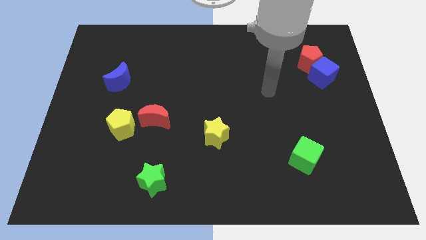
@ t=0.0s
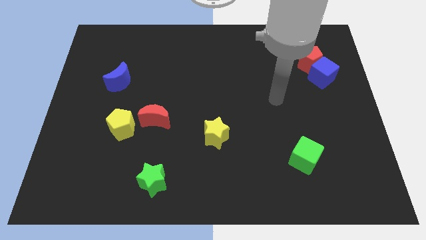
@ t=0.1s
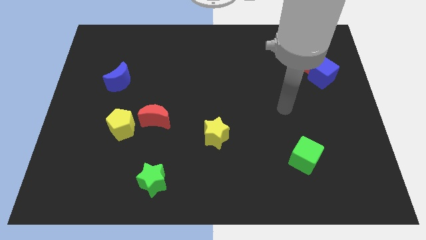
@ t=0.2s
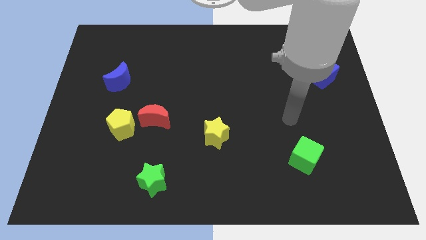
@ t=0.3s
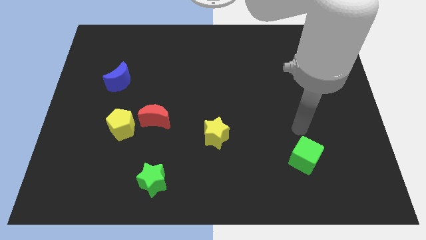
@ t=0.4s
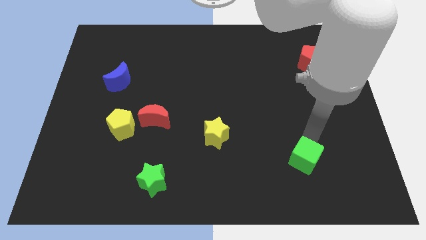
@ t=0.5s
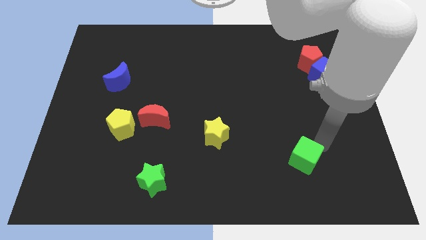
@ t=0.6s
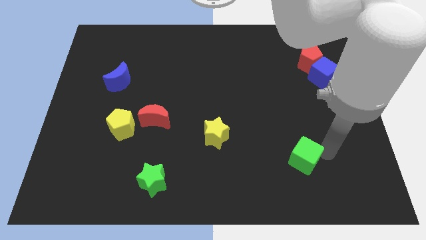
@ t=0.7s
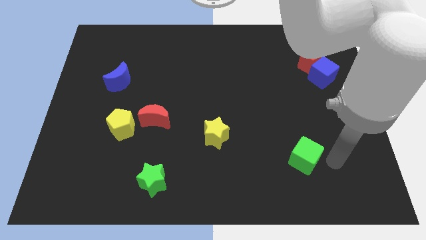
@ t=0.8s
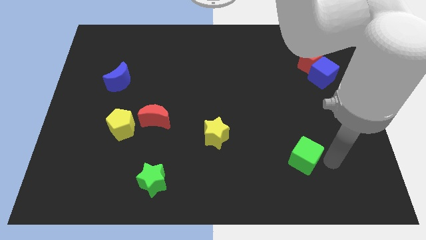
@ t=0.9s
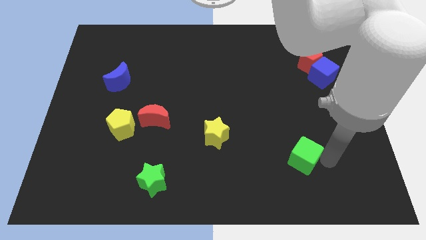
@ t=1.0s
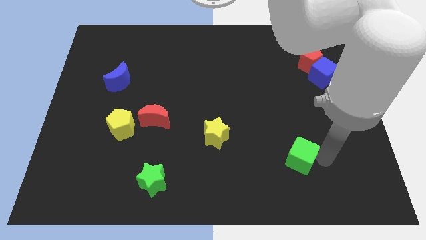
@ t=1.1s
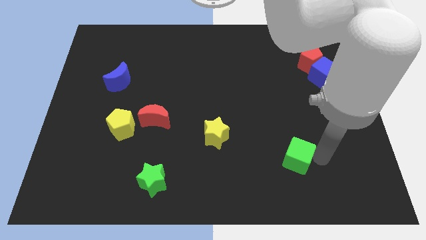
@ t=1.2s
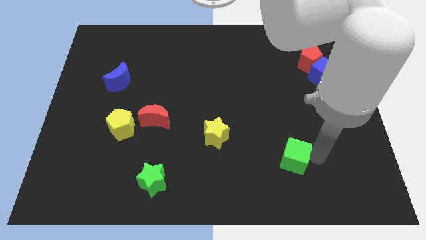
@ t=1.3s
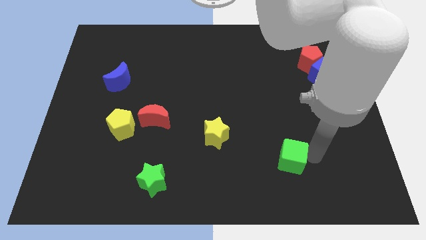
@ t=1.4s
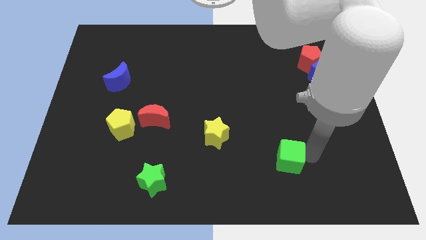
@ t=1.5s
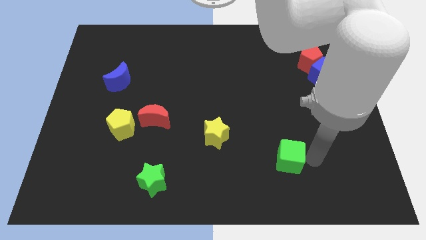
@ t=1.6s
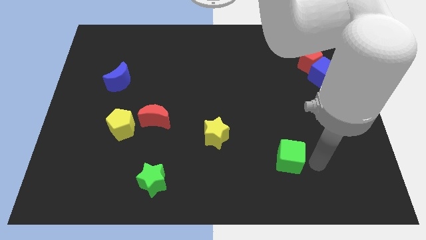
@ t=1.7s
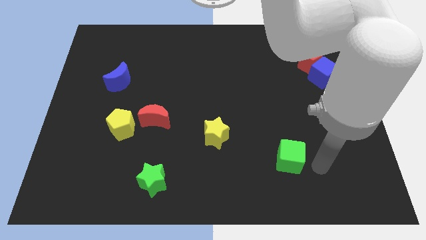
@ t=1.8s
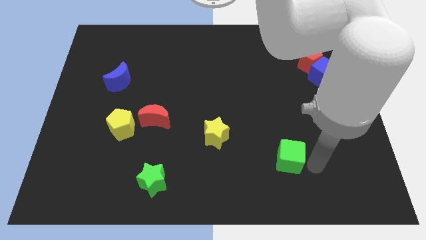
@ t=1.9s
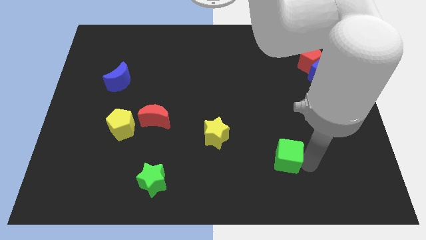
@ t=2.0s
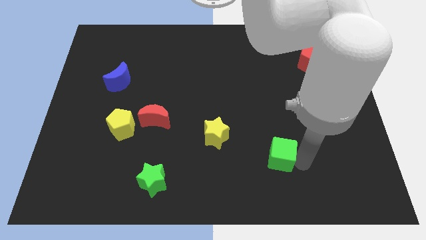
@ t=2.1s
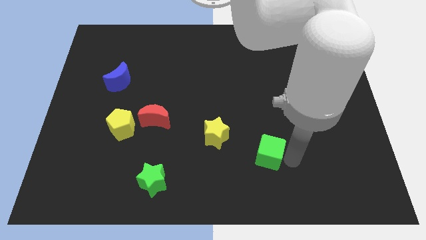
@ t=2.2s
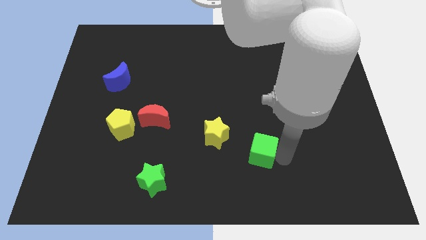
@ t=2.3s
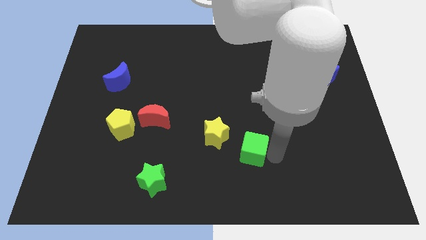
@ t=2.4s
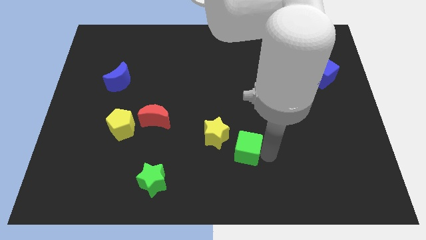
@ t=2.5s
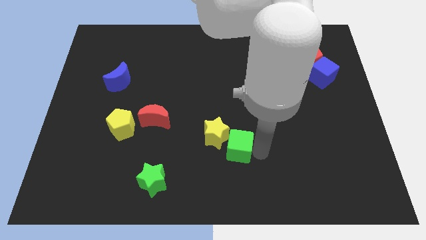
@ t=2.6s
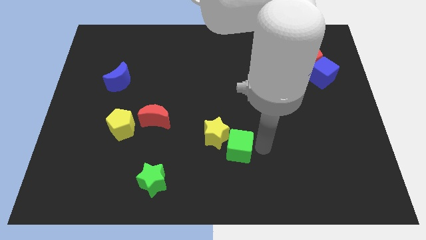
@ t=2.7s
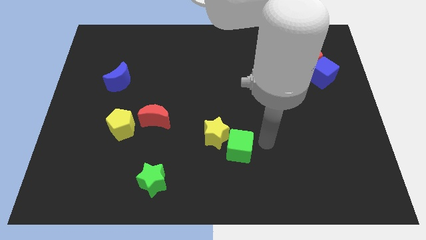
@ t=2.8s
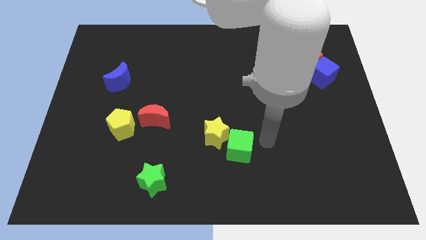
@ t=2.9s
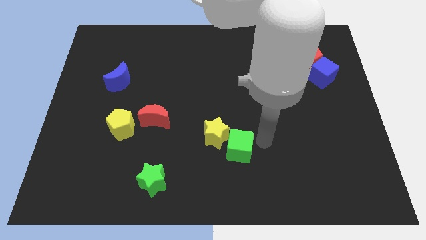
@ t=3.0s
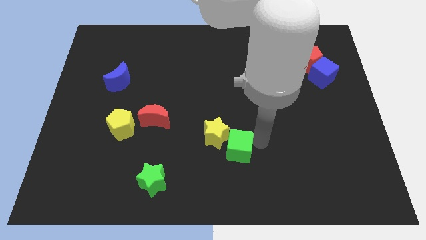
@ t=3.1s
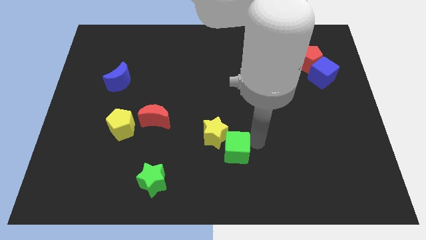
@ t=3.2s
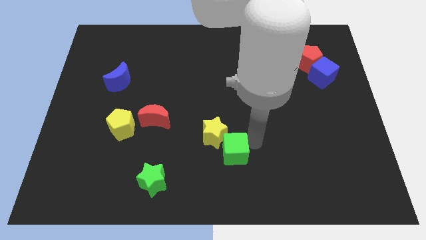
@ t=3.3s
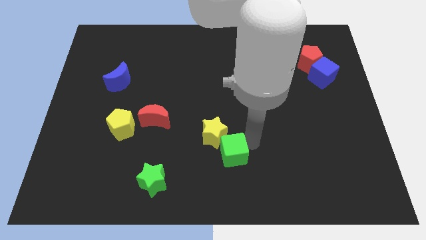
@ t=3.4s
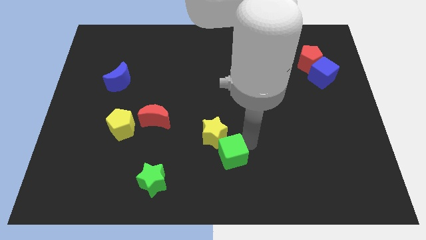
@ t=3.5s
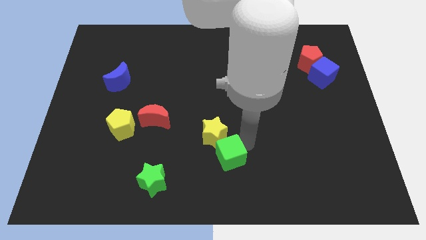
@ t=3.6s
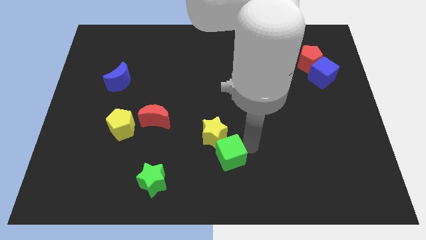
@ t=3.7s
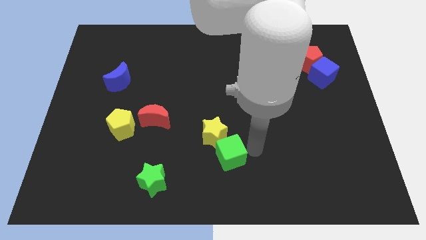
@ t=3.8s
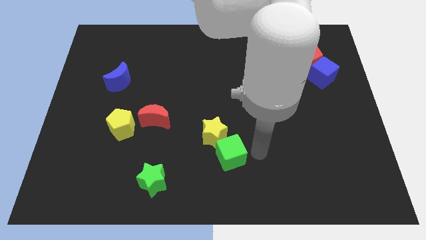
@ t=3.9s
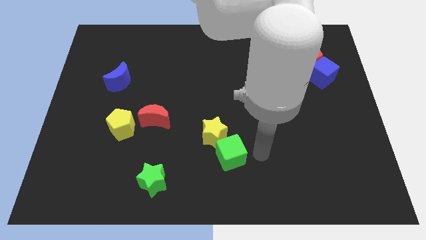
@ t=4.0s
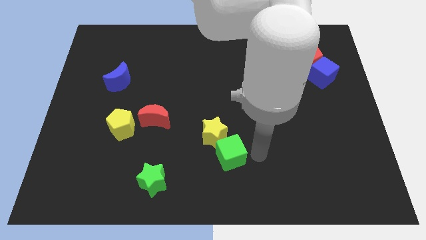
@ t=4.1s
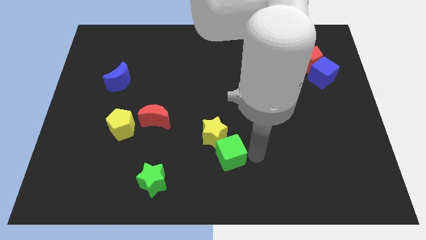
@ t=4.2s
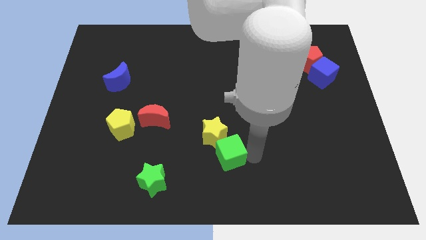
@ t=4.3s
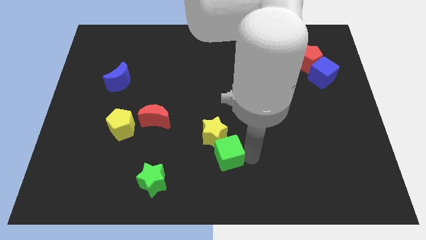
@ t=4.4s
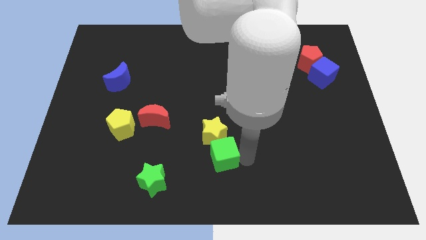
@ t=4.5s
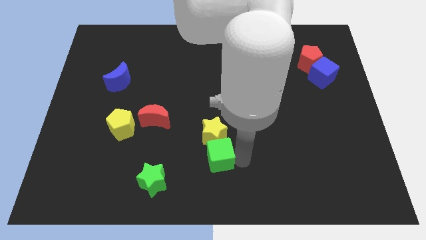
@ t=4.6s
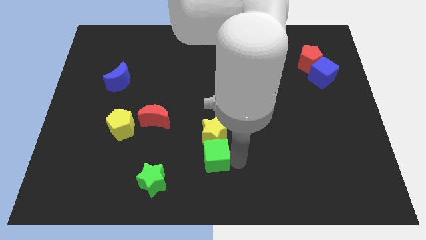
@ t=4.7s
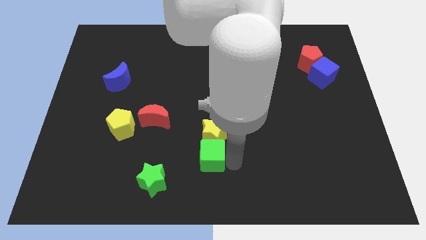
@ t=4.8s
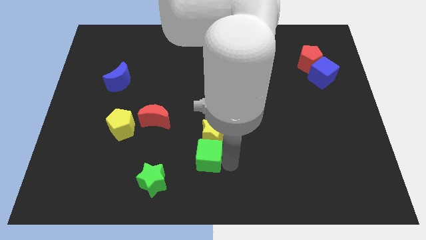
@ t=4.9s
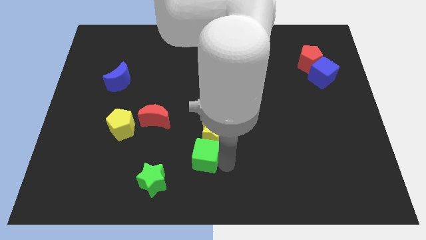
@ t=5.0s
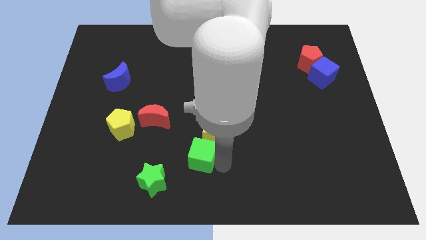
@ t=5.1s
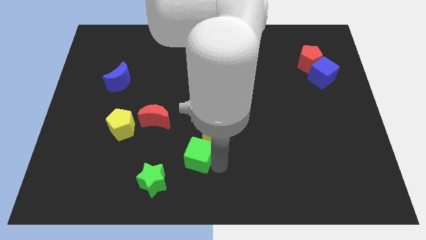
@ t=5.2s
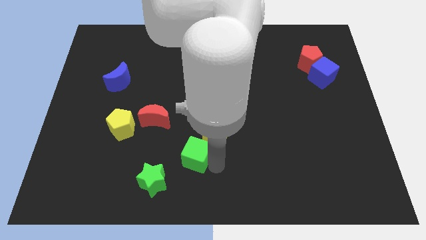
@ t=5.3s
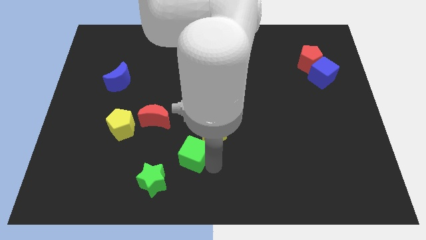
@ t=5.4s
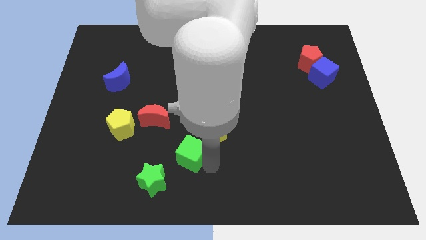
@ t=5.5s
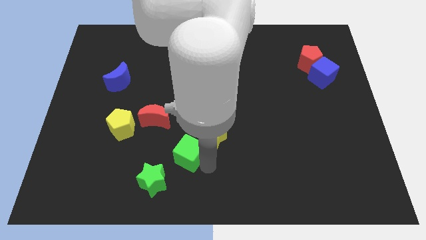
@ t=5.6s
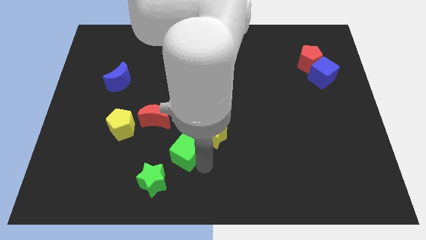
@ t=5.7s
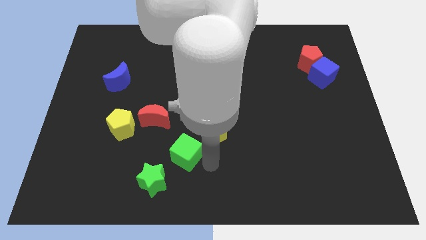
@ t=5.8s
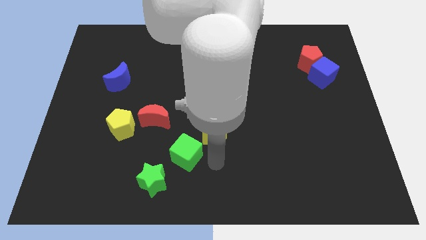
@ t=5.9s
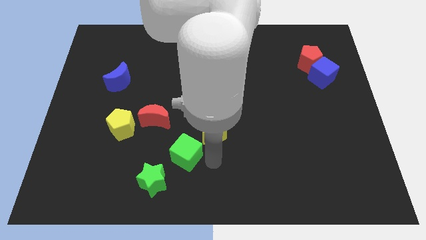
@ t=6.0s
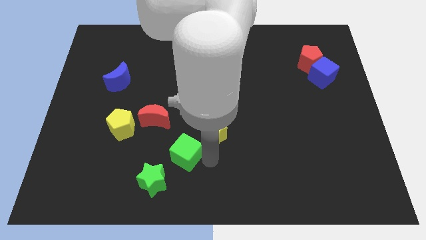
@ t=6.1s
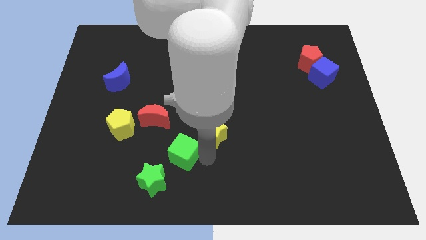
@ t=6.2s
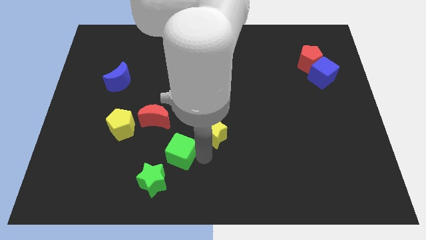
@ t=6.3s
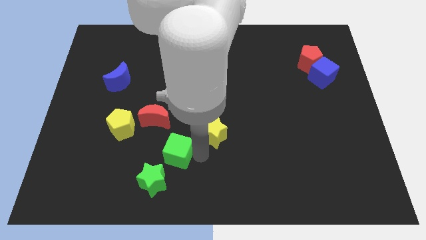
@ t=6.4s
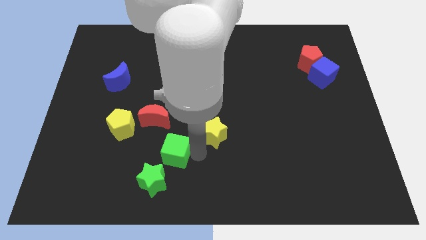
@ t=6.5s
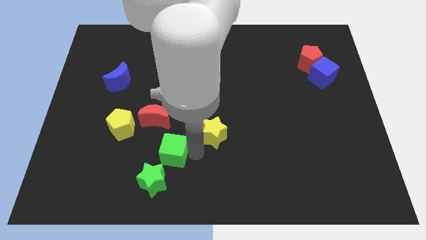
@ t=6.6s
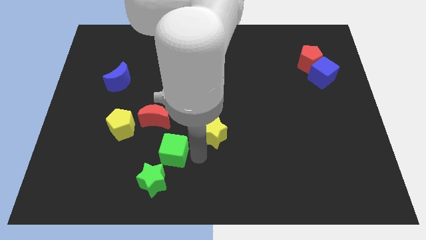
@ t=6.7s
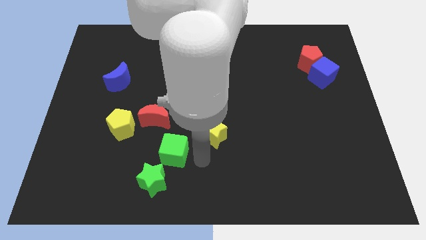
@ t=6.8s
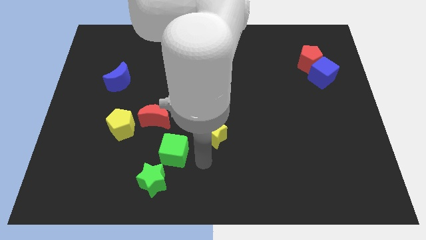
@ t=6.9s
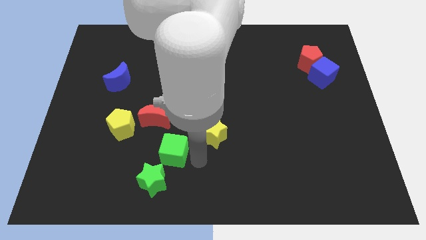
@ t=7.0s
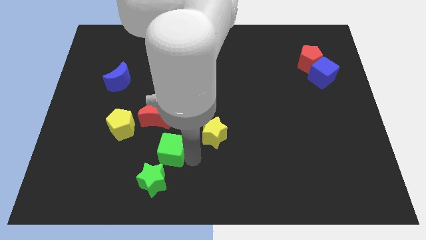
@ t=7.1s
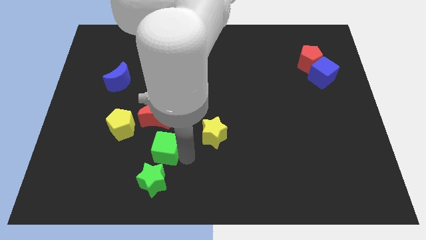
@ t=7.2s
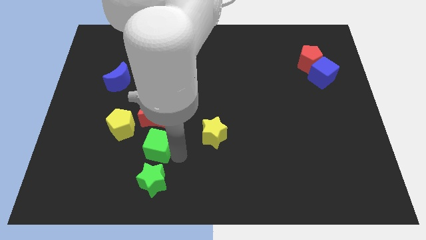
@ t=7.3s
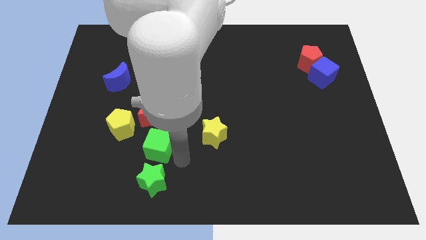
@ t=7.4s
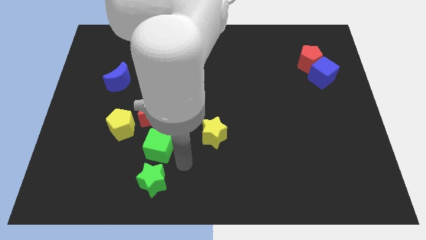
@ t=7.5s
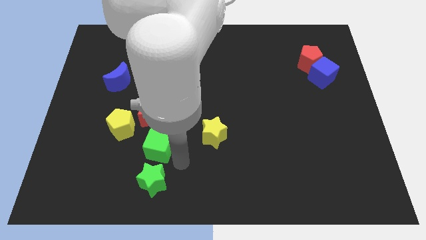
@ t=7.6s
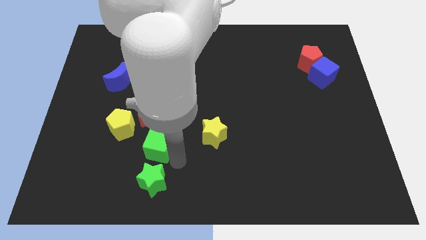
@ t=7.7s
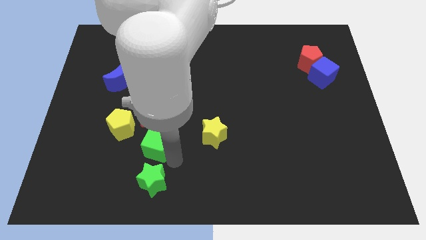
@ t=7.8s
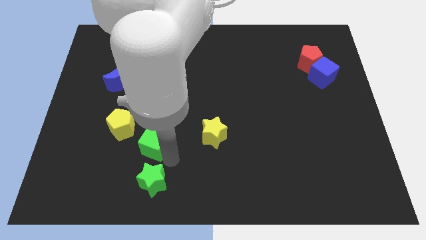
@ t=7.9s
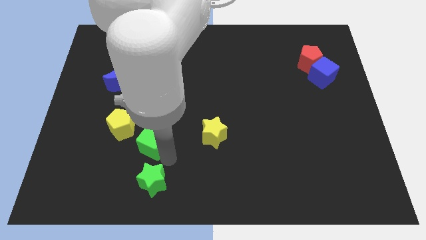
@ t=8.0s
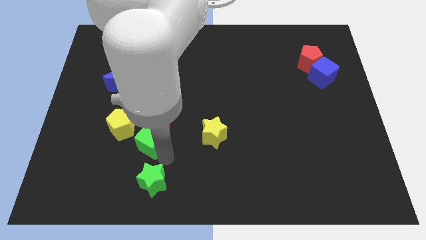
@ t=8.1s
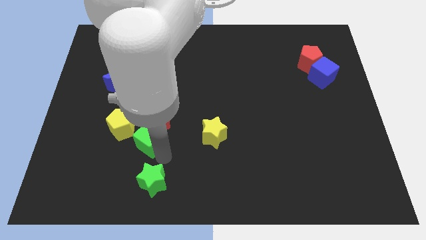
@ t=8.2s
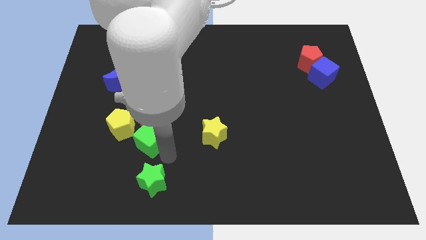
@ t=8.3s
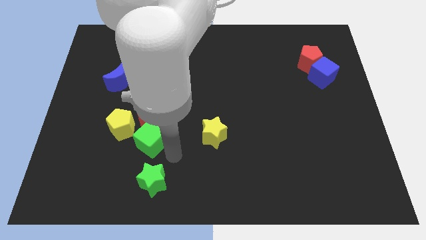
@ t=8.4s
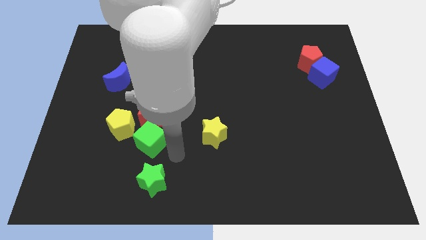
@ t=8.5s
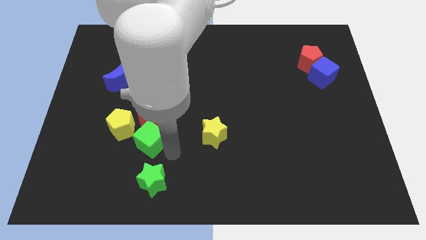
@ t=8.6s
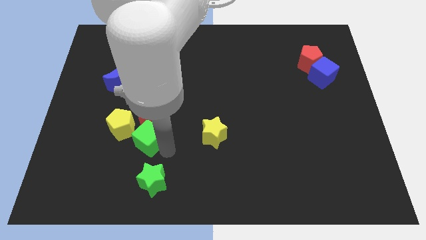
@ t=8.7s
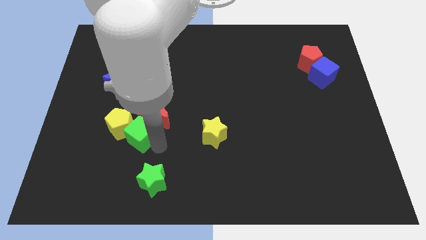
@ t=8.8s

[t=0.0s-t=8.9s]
put the green cube to the yellow pentagon
